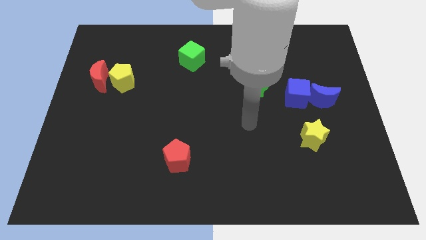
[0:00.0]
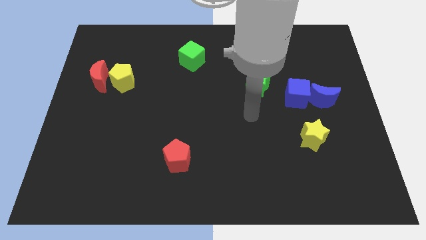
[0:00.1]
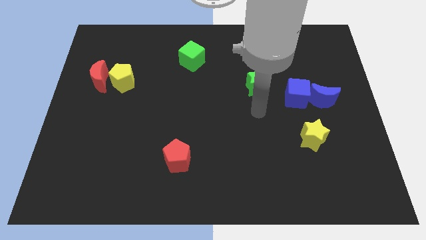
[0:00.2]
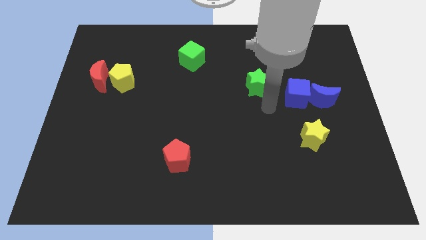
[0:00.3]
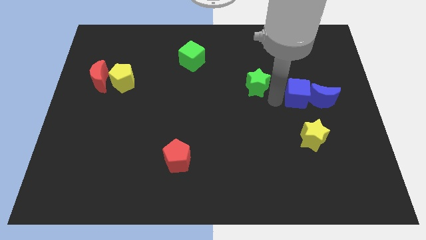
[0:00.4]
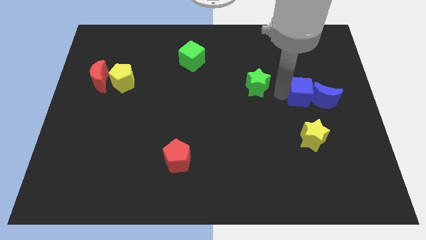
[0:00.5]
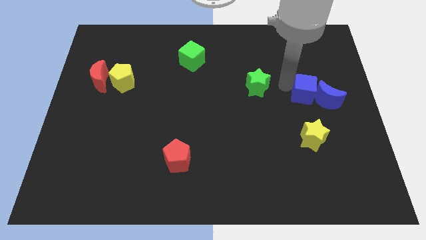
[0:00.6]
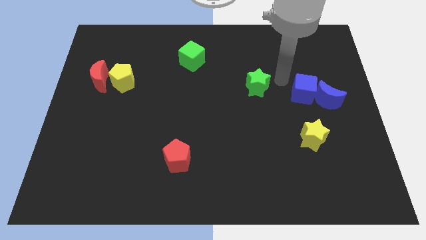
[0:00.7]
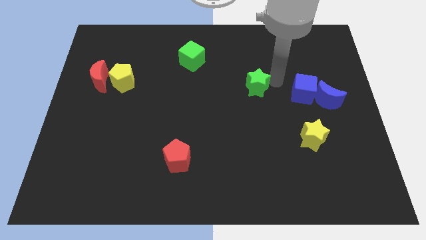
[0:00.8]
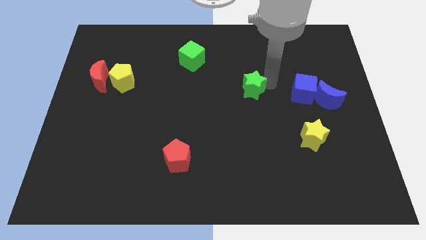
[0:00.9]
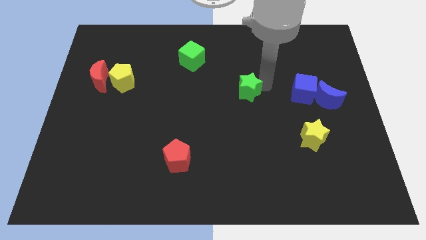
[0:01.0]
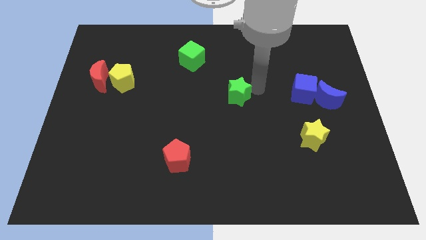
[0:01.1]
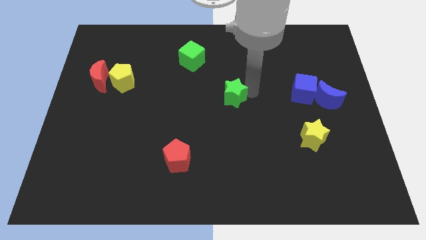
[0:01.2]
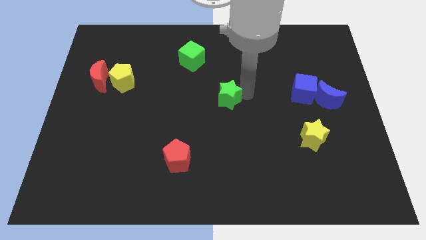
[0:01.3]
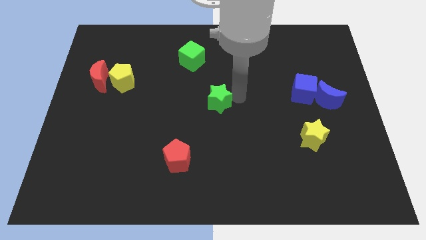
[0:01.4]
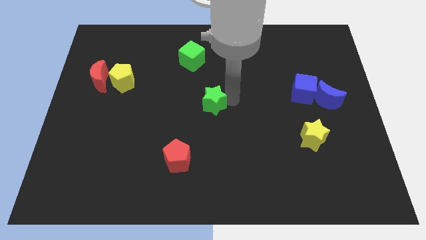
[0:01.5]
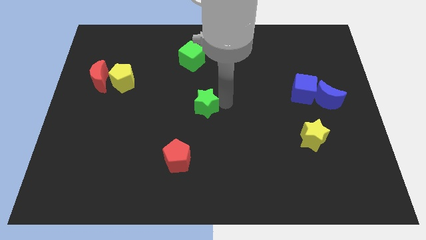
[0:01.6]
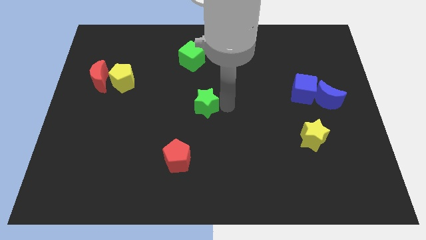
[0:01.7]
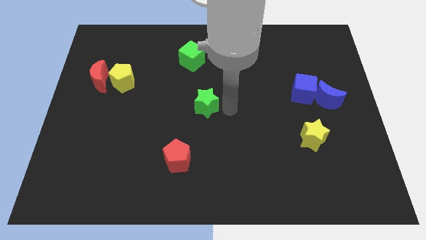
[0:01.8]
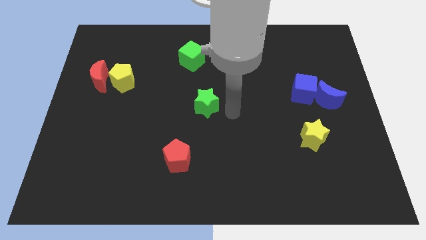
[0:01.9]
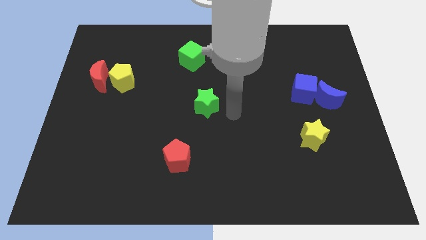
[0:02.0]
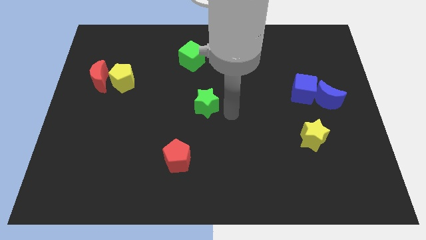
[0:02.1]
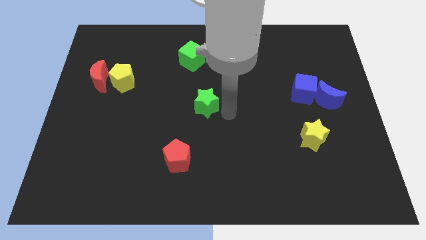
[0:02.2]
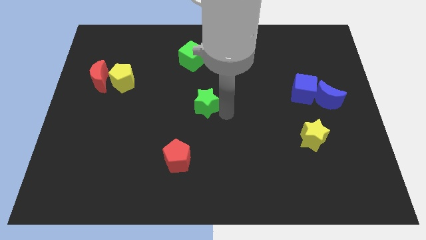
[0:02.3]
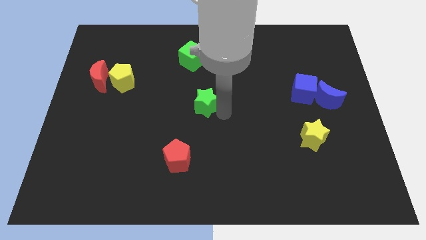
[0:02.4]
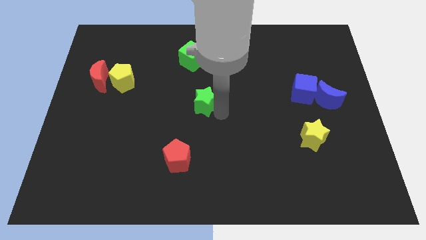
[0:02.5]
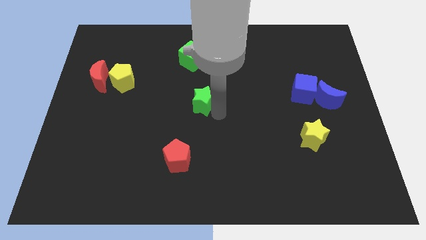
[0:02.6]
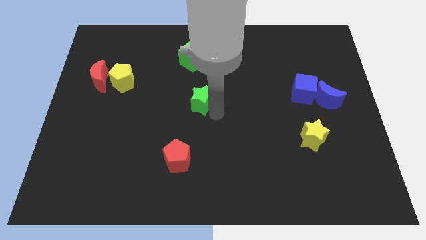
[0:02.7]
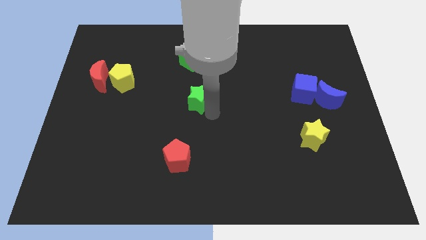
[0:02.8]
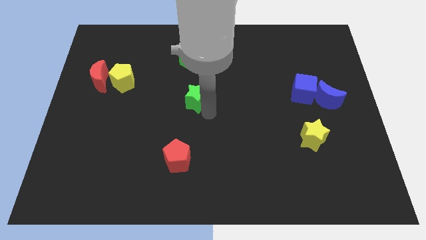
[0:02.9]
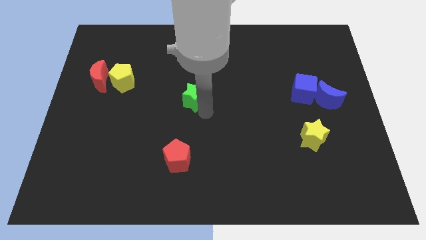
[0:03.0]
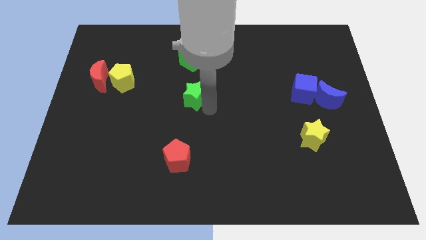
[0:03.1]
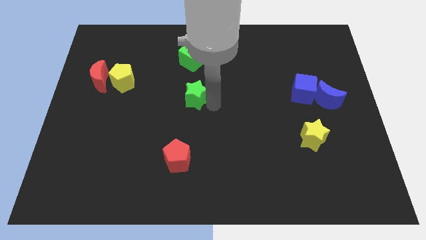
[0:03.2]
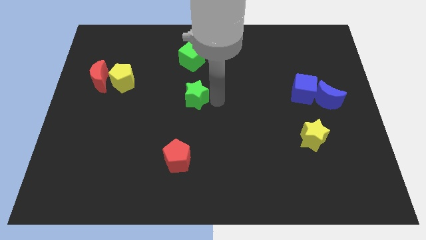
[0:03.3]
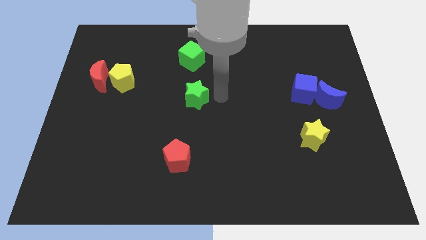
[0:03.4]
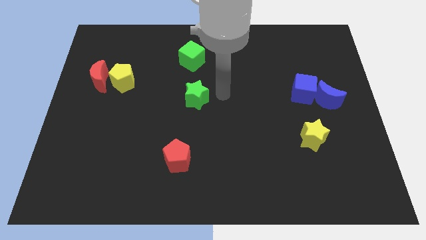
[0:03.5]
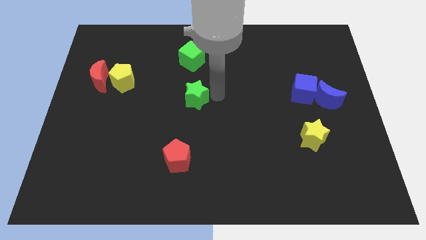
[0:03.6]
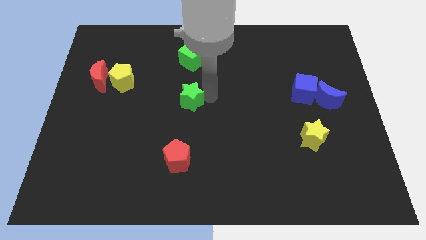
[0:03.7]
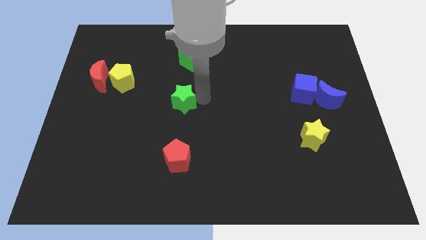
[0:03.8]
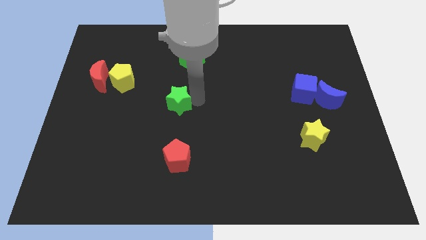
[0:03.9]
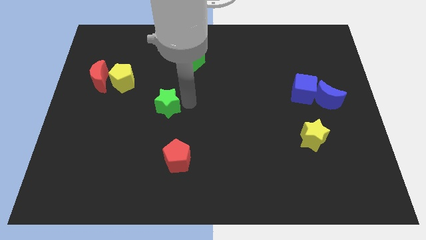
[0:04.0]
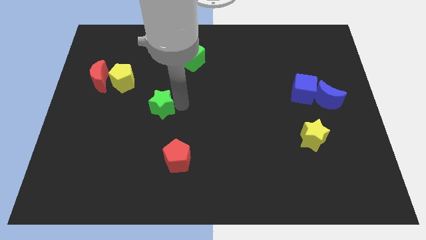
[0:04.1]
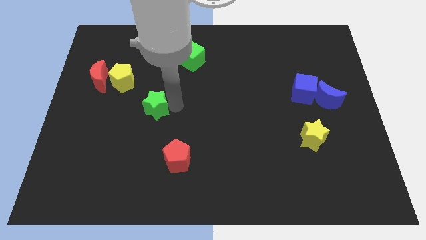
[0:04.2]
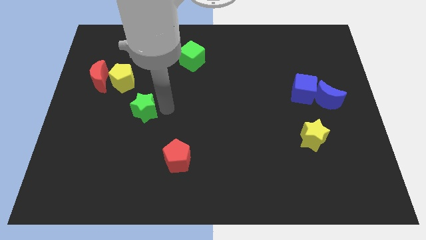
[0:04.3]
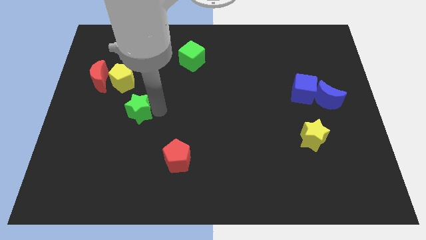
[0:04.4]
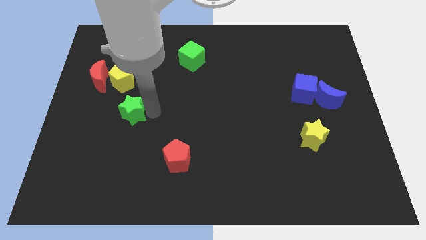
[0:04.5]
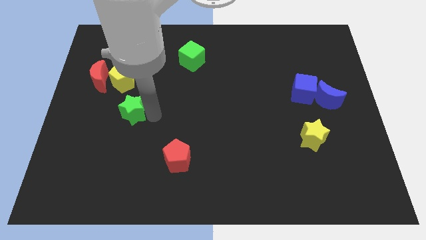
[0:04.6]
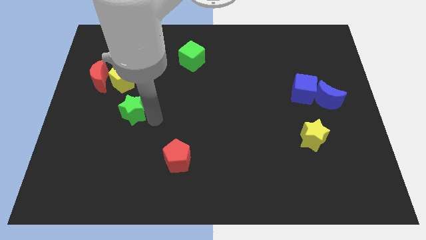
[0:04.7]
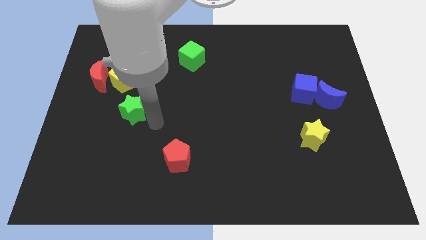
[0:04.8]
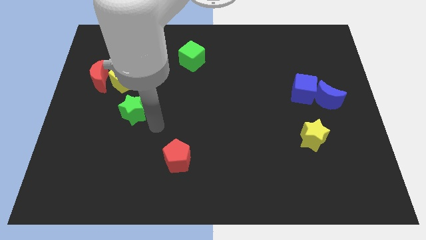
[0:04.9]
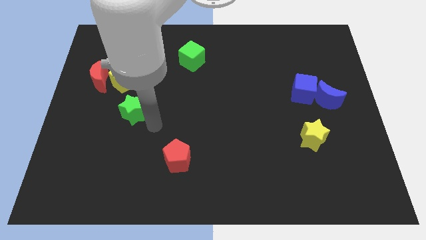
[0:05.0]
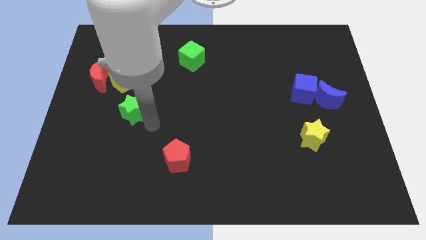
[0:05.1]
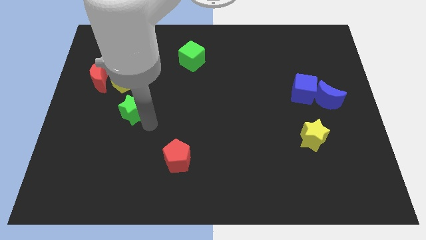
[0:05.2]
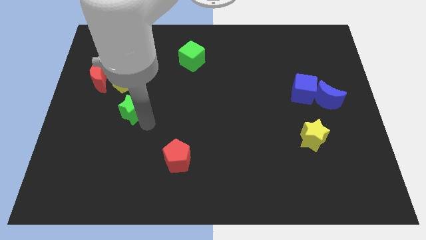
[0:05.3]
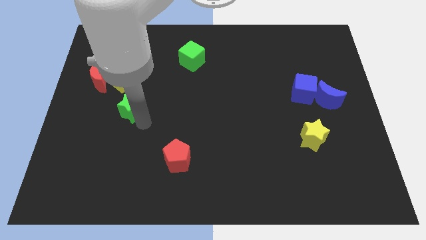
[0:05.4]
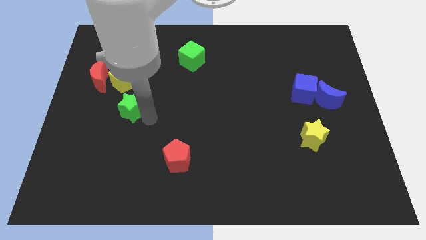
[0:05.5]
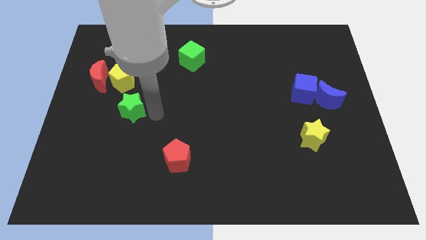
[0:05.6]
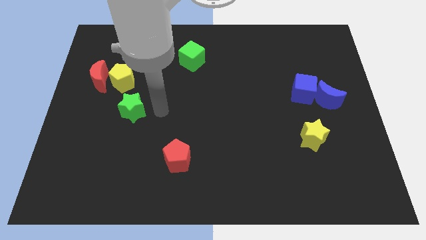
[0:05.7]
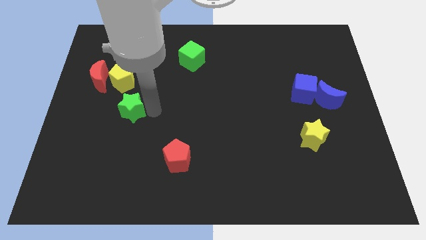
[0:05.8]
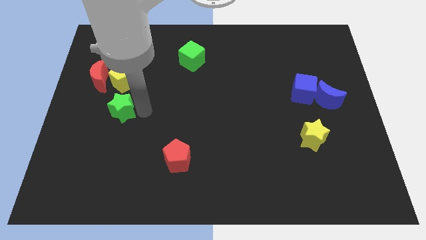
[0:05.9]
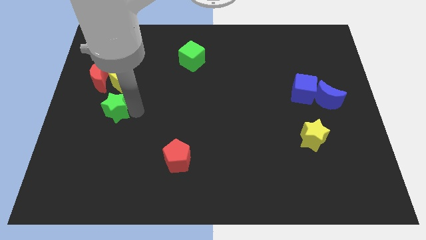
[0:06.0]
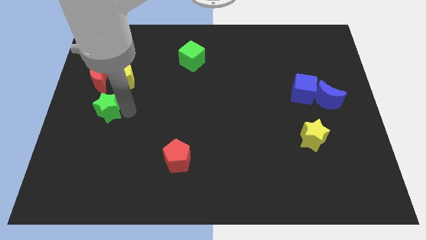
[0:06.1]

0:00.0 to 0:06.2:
slide the green star to the bottom of the red moon
